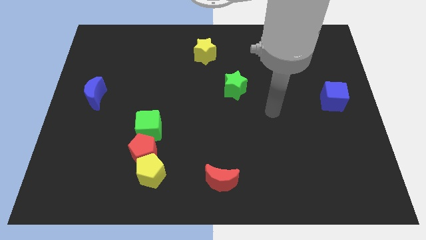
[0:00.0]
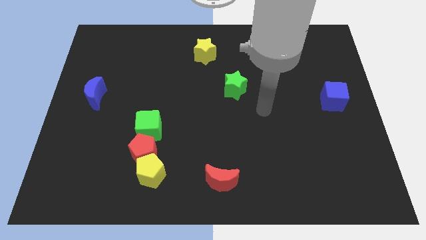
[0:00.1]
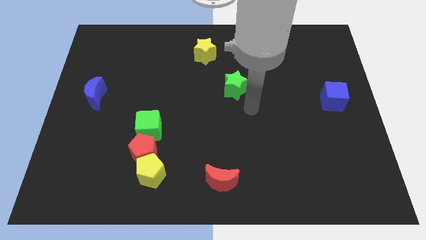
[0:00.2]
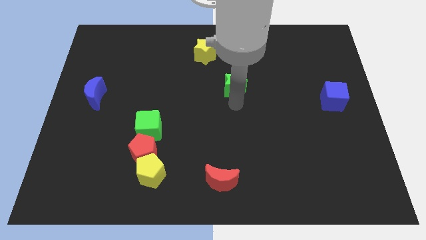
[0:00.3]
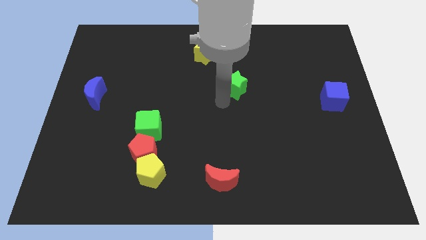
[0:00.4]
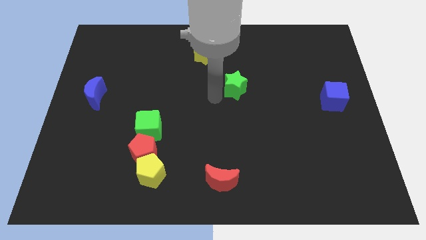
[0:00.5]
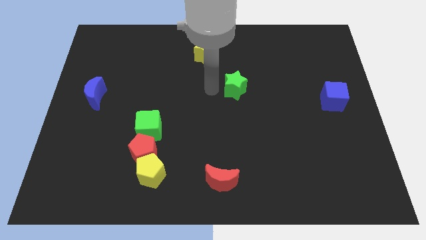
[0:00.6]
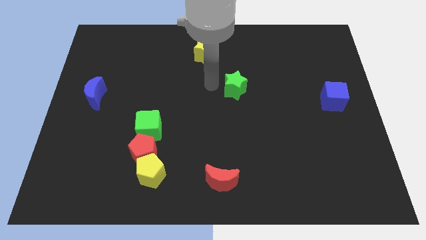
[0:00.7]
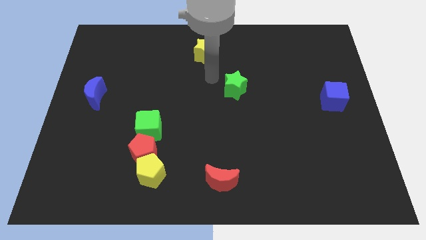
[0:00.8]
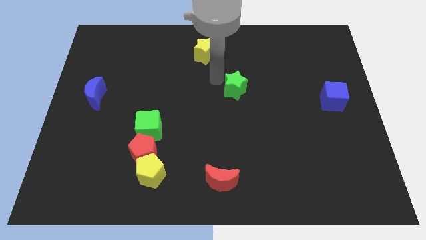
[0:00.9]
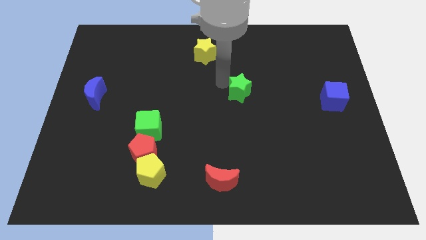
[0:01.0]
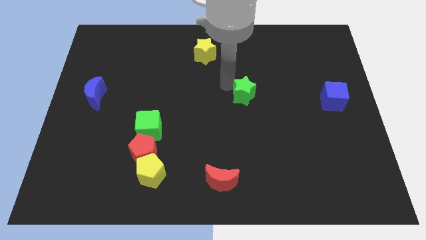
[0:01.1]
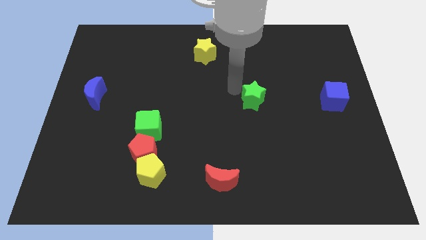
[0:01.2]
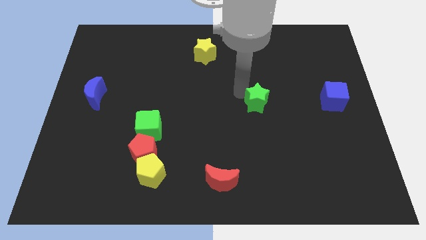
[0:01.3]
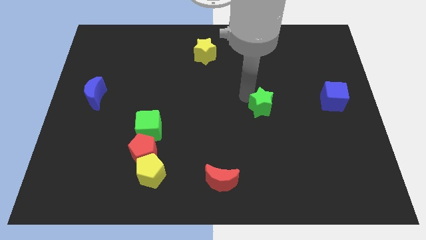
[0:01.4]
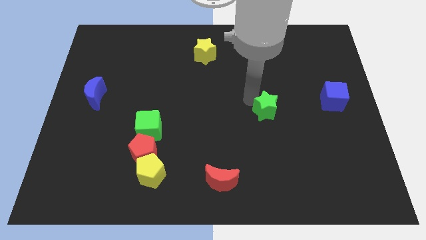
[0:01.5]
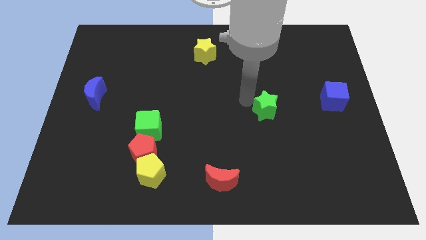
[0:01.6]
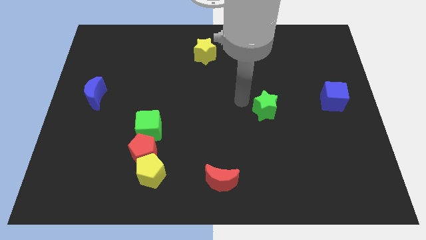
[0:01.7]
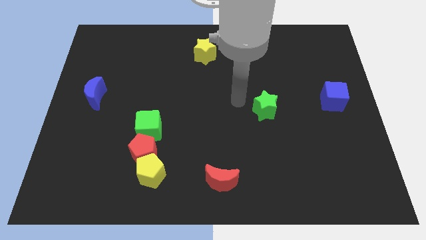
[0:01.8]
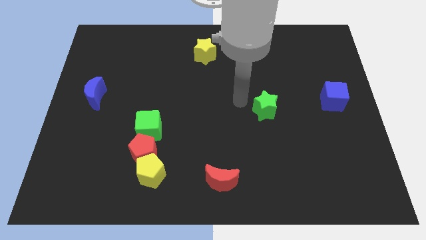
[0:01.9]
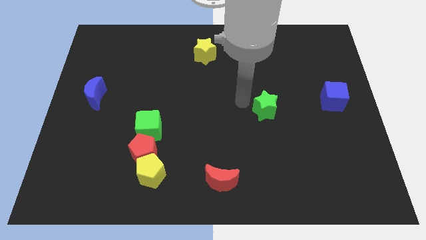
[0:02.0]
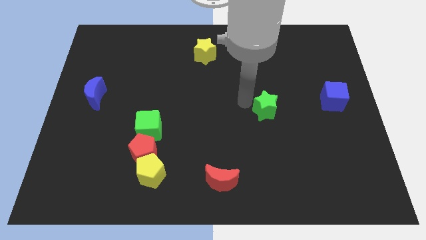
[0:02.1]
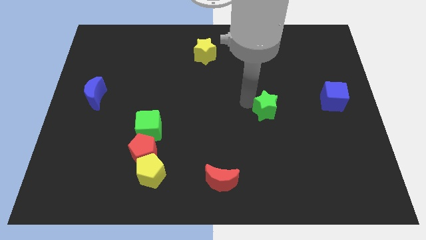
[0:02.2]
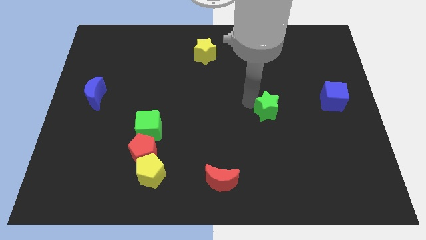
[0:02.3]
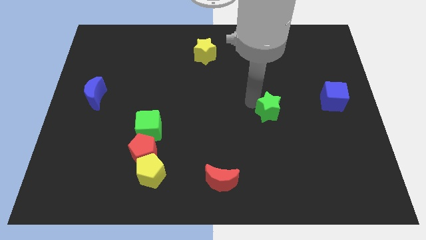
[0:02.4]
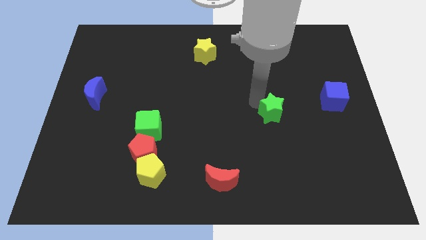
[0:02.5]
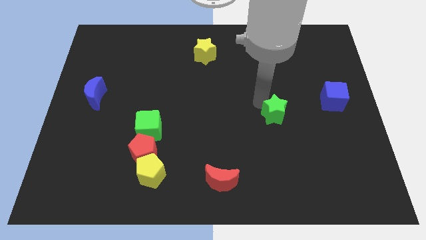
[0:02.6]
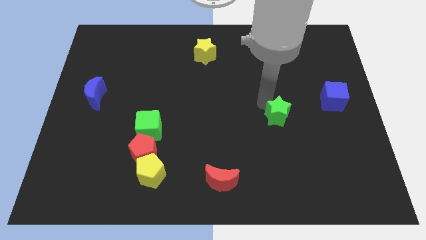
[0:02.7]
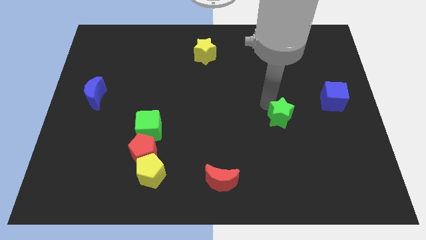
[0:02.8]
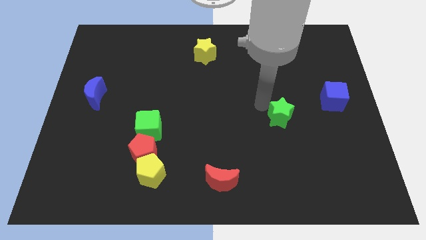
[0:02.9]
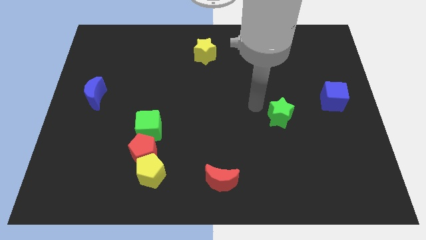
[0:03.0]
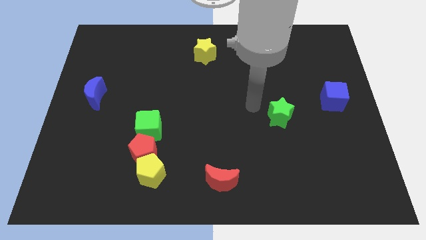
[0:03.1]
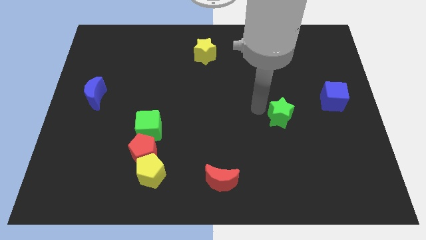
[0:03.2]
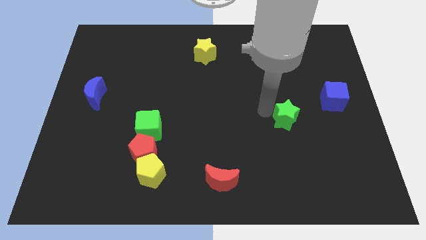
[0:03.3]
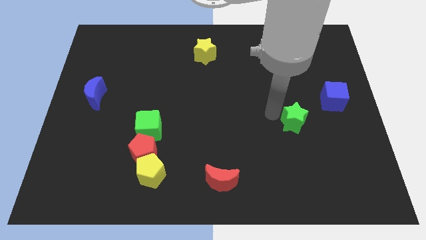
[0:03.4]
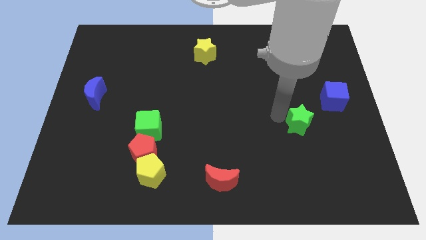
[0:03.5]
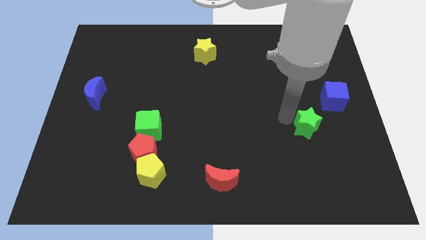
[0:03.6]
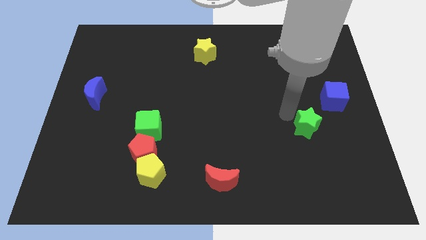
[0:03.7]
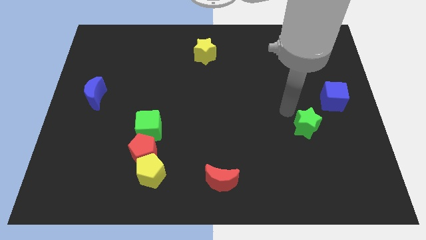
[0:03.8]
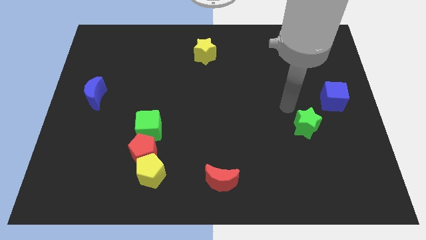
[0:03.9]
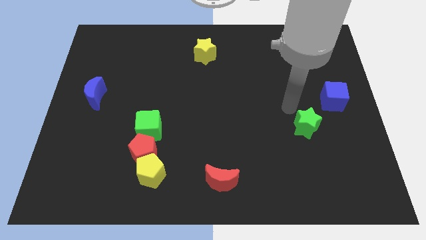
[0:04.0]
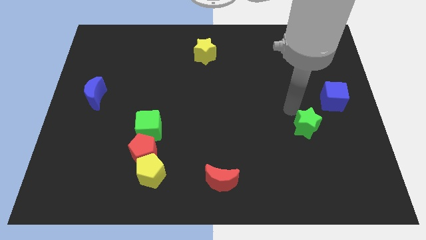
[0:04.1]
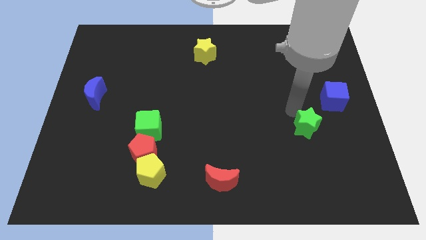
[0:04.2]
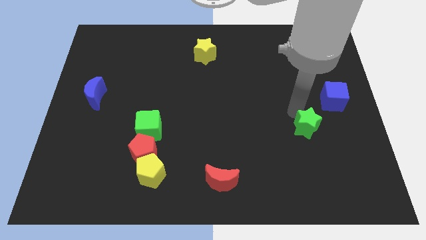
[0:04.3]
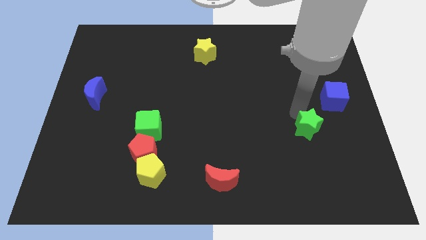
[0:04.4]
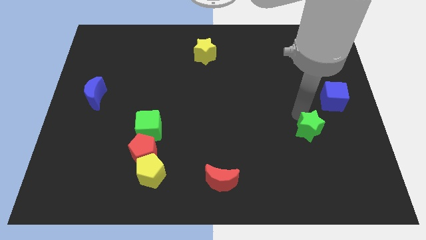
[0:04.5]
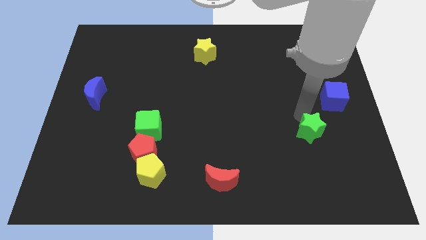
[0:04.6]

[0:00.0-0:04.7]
slide the green star down and then to the right

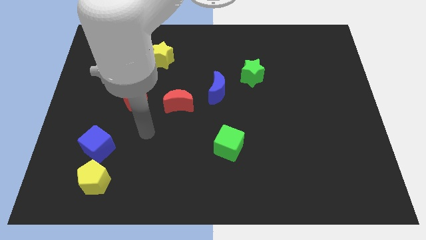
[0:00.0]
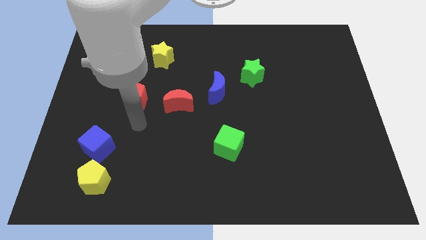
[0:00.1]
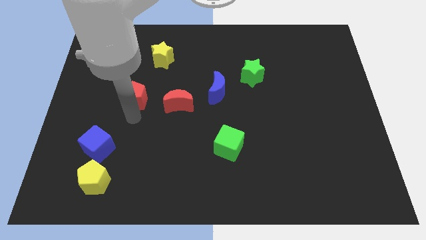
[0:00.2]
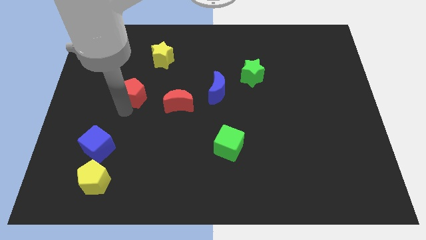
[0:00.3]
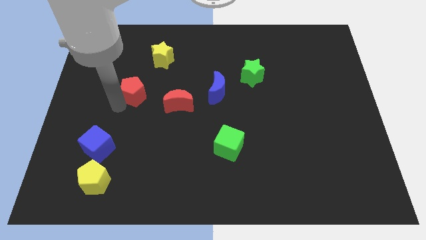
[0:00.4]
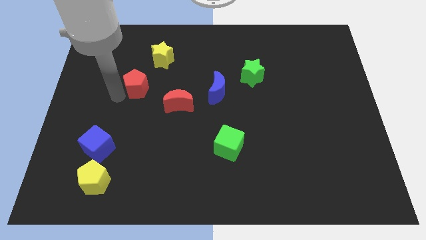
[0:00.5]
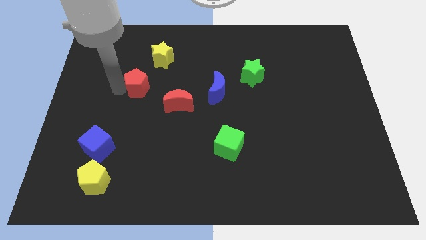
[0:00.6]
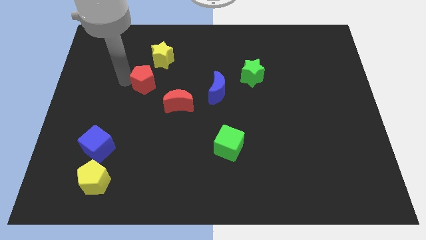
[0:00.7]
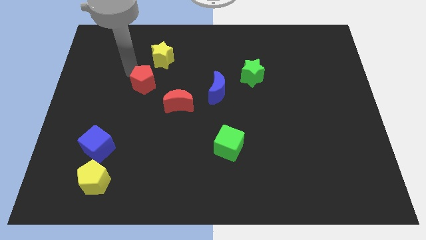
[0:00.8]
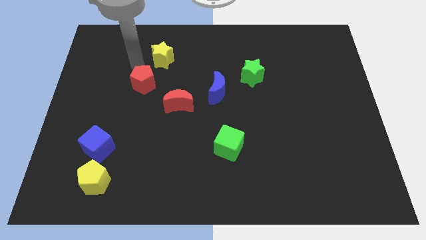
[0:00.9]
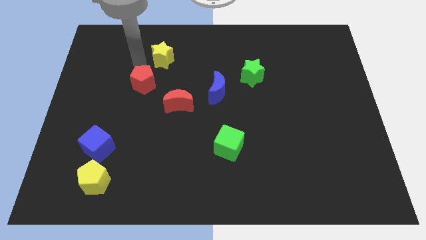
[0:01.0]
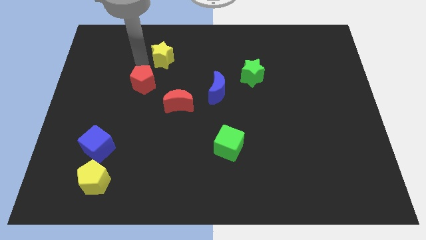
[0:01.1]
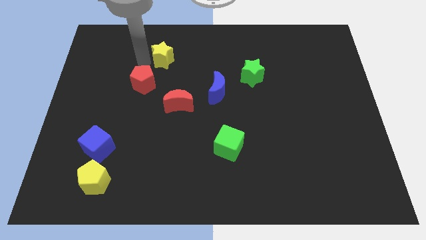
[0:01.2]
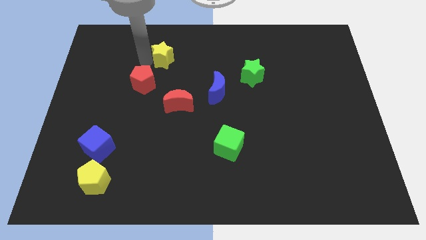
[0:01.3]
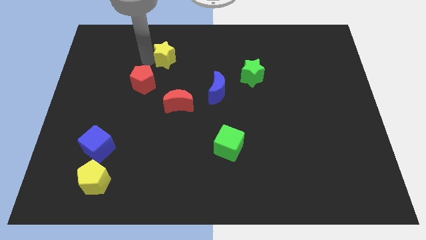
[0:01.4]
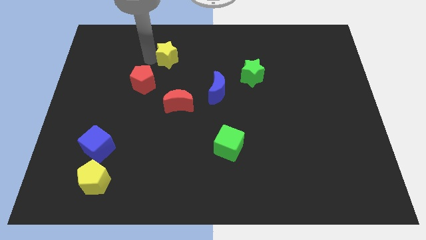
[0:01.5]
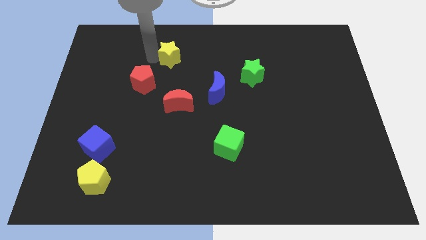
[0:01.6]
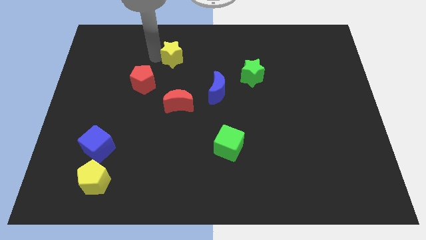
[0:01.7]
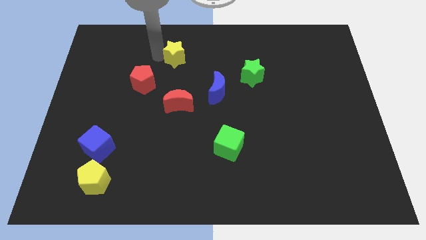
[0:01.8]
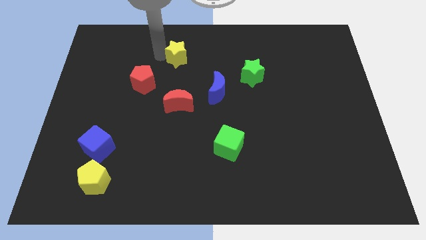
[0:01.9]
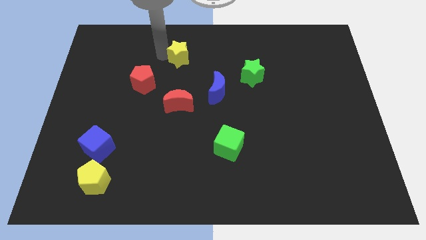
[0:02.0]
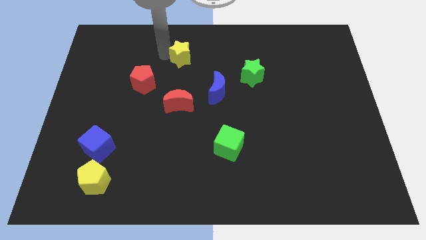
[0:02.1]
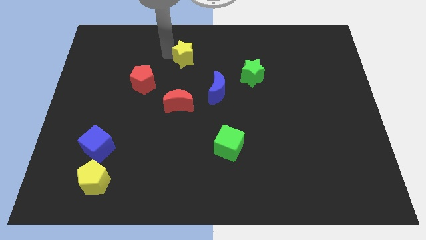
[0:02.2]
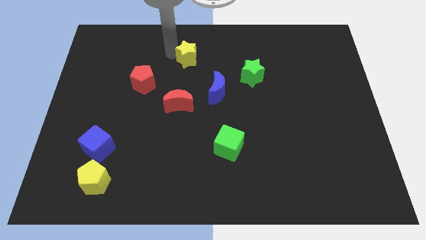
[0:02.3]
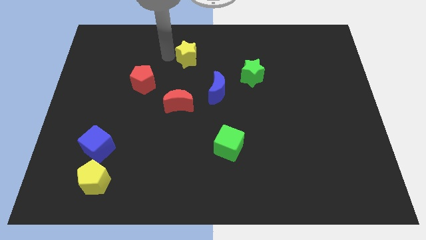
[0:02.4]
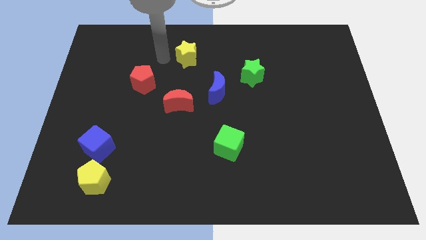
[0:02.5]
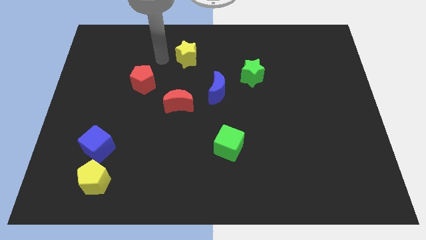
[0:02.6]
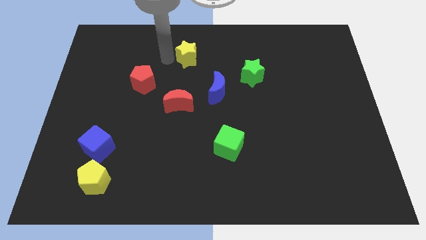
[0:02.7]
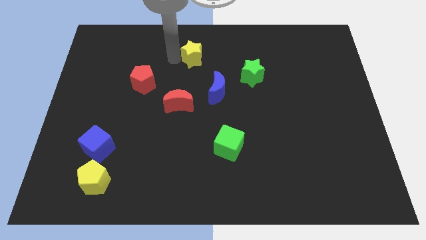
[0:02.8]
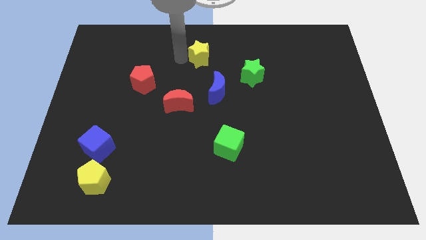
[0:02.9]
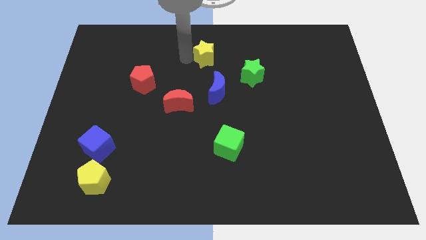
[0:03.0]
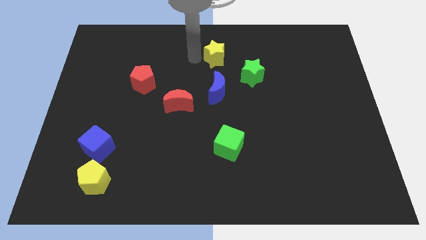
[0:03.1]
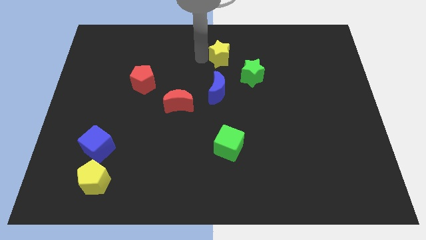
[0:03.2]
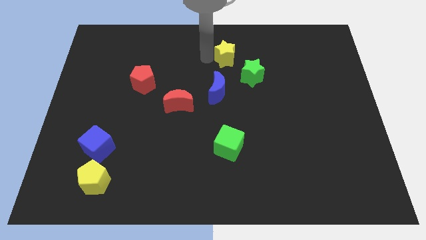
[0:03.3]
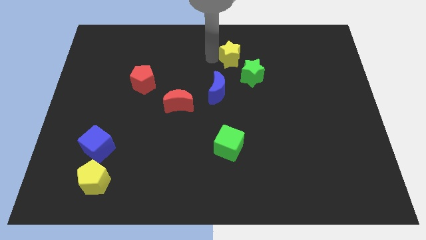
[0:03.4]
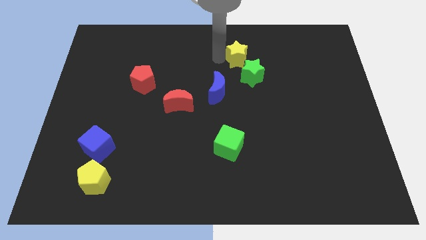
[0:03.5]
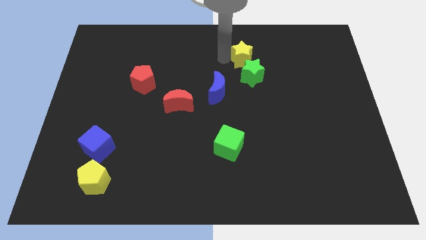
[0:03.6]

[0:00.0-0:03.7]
slide the yellow star to the right
